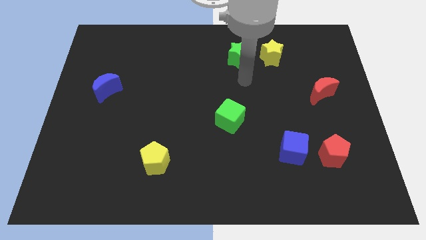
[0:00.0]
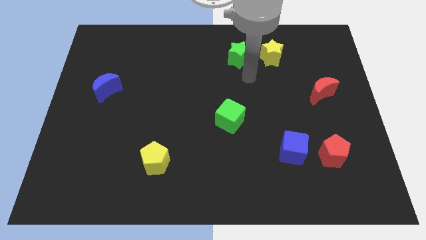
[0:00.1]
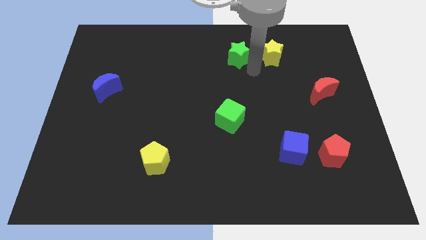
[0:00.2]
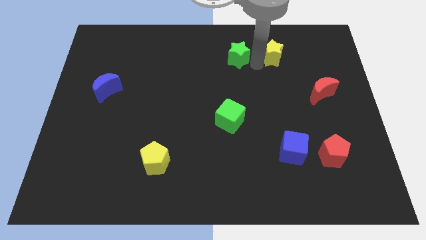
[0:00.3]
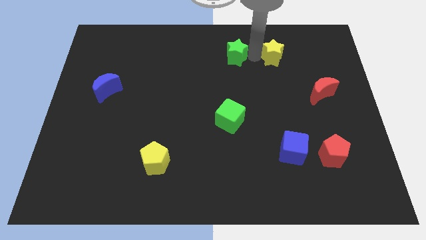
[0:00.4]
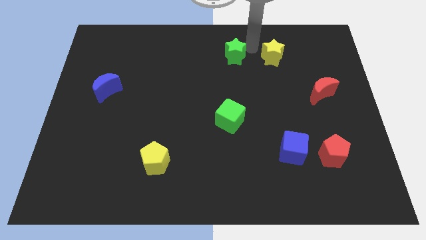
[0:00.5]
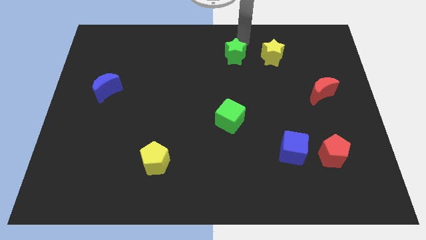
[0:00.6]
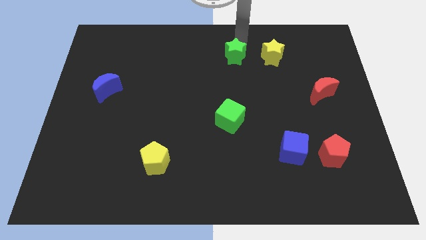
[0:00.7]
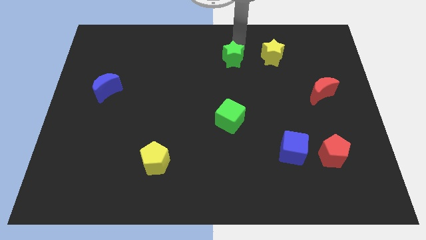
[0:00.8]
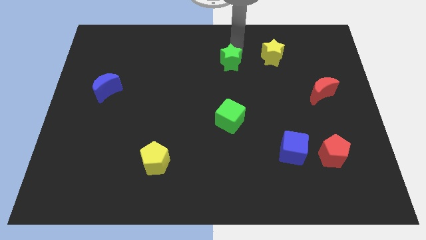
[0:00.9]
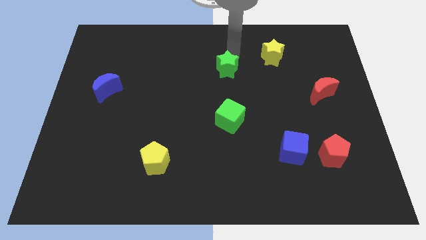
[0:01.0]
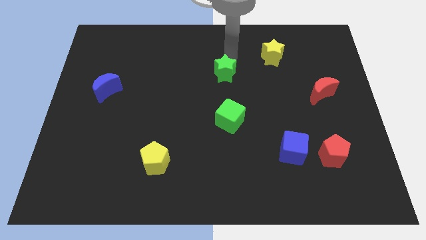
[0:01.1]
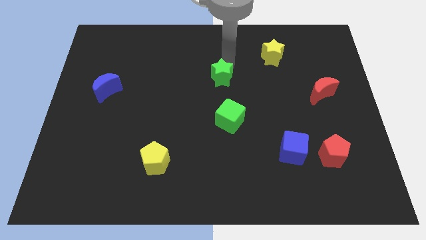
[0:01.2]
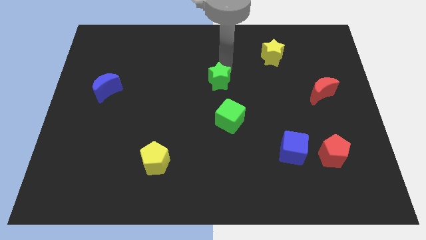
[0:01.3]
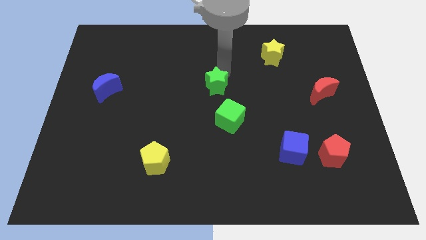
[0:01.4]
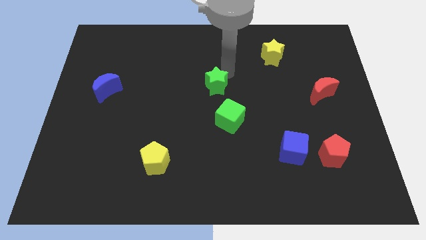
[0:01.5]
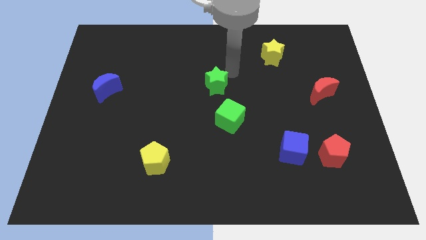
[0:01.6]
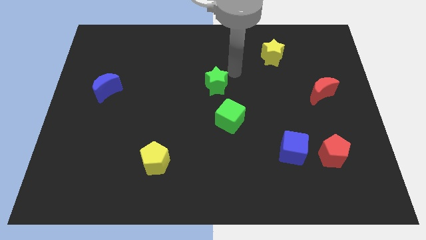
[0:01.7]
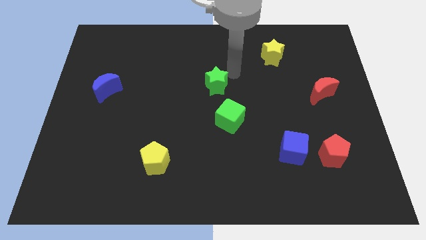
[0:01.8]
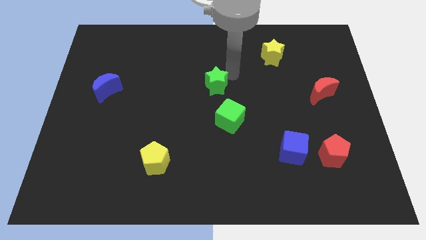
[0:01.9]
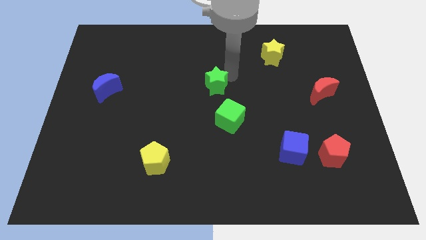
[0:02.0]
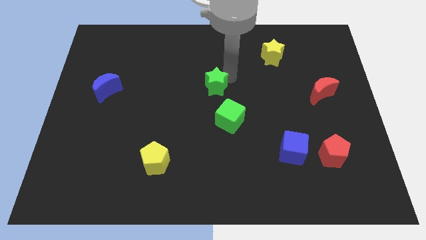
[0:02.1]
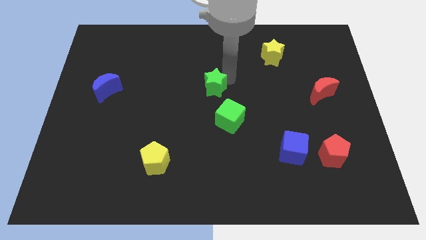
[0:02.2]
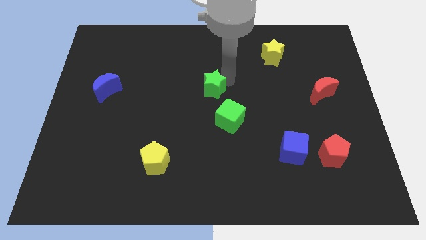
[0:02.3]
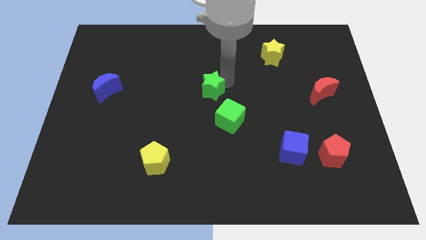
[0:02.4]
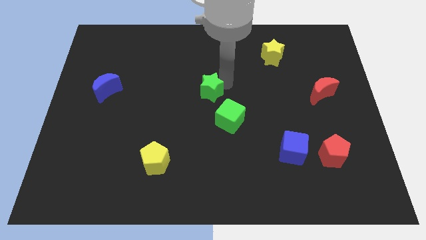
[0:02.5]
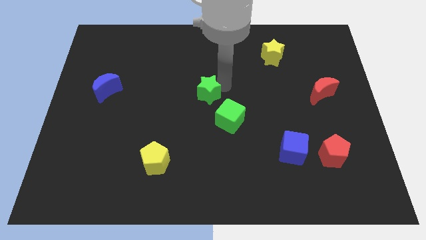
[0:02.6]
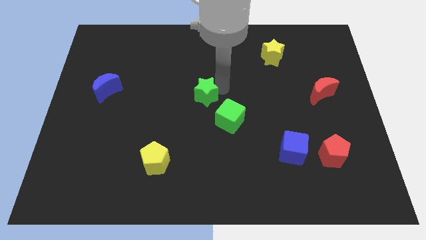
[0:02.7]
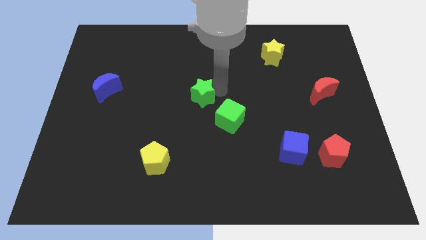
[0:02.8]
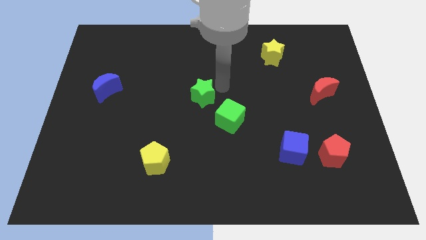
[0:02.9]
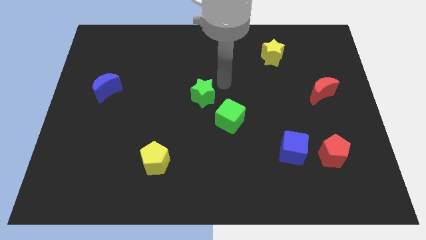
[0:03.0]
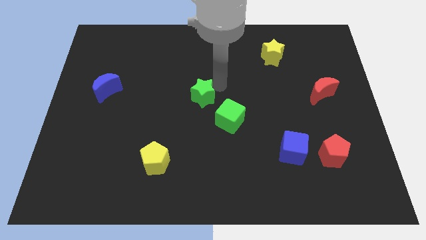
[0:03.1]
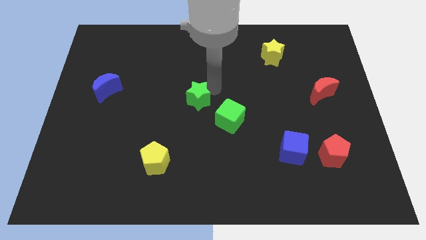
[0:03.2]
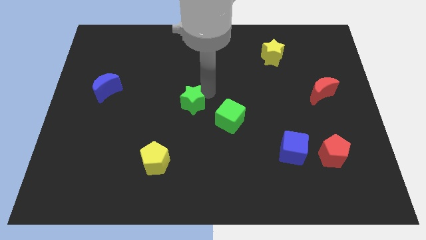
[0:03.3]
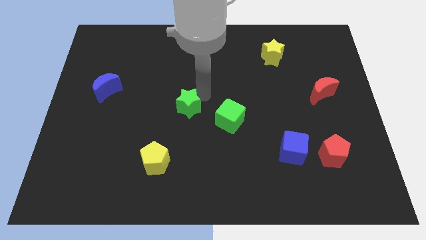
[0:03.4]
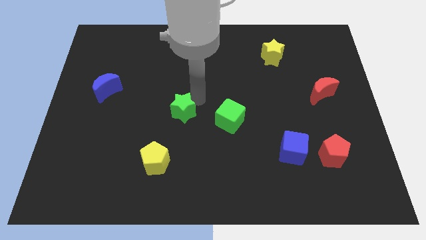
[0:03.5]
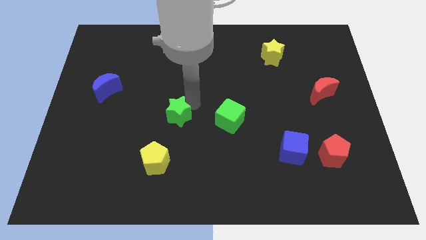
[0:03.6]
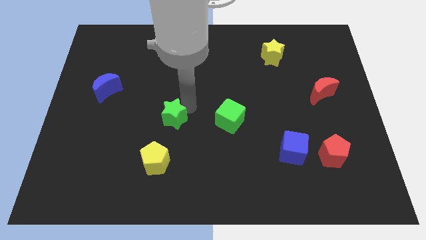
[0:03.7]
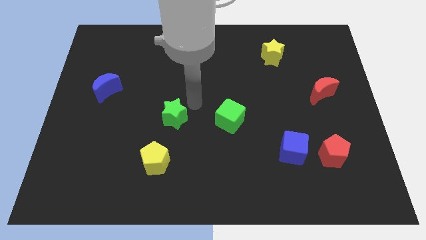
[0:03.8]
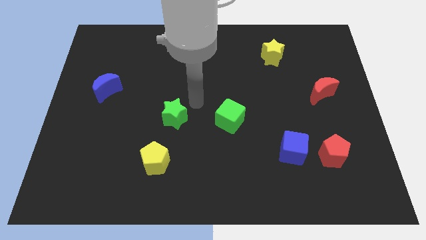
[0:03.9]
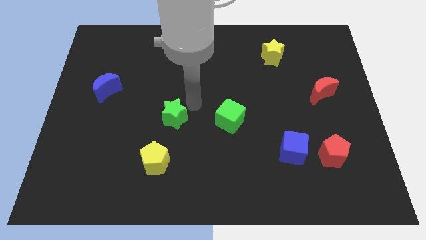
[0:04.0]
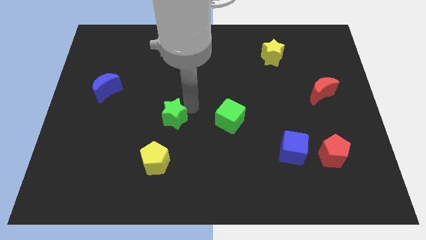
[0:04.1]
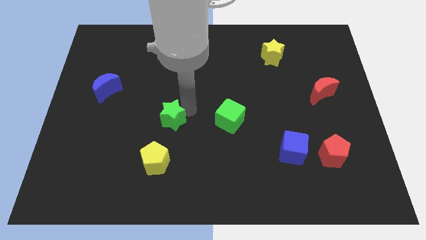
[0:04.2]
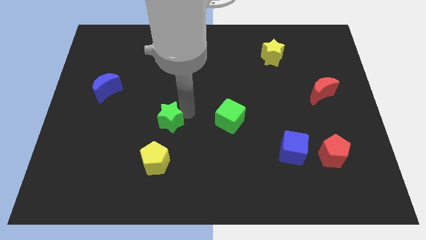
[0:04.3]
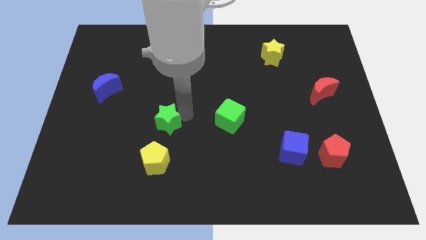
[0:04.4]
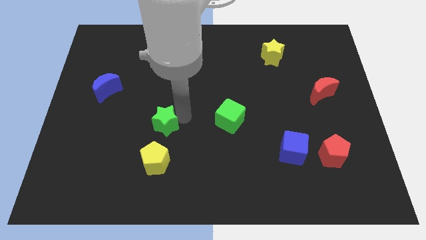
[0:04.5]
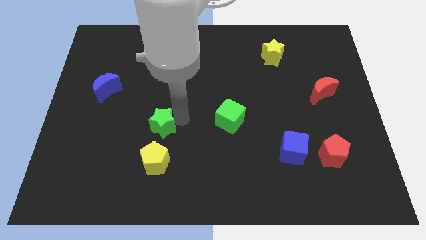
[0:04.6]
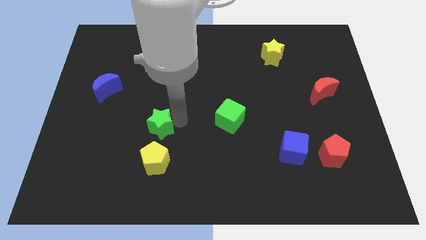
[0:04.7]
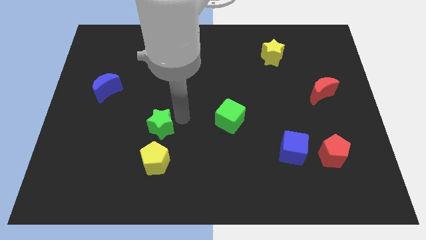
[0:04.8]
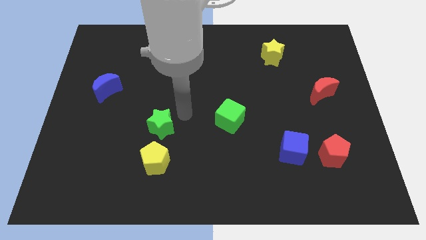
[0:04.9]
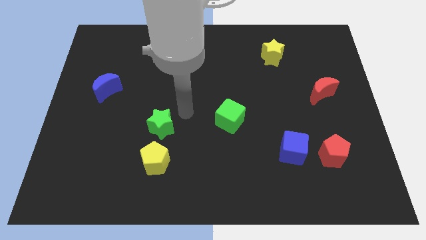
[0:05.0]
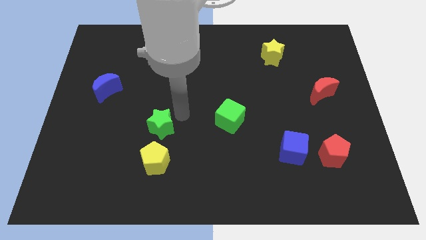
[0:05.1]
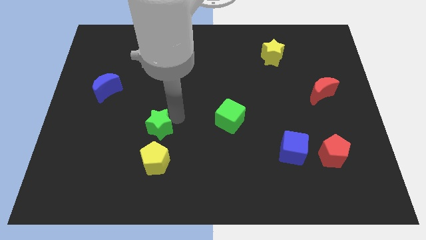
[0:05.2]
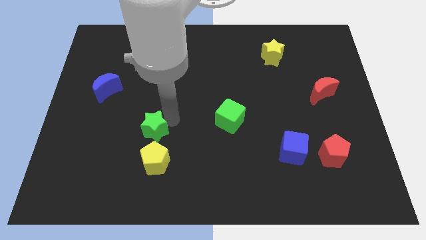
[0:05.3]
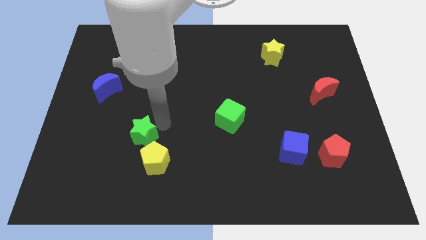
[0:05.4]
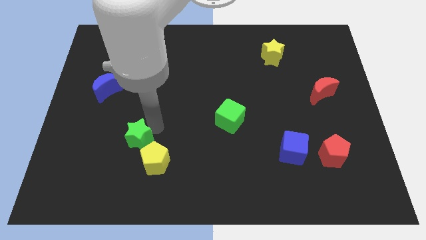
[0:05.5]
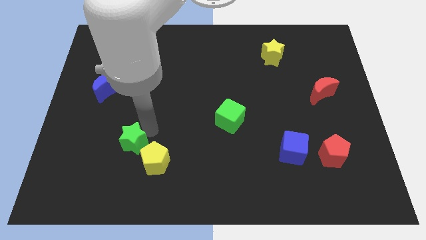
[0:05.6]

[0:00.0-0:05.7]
slide the green star left of the yellow pentagon

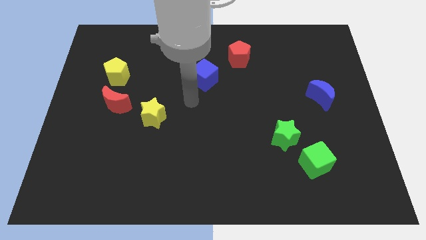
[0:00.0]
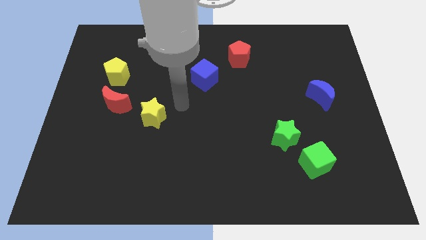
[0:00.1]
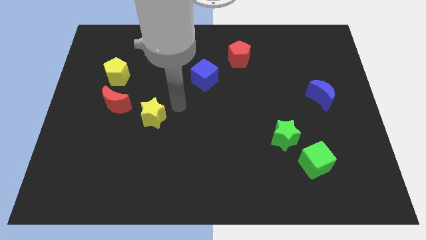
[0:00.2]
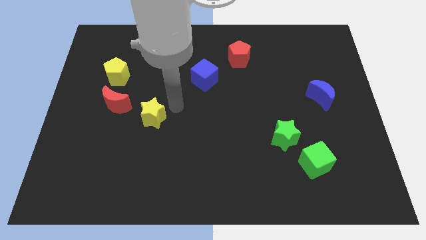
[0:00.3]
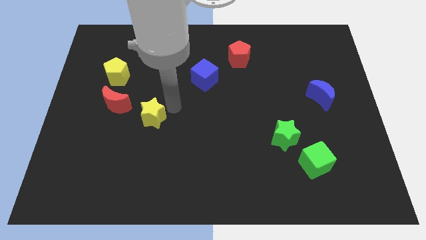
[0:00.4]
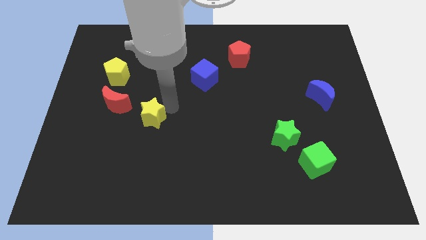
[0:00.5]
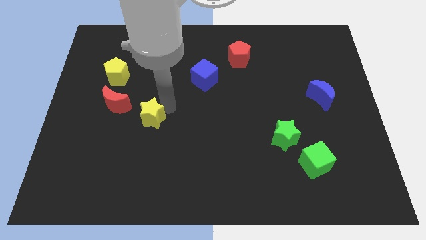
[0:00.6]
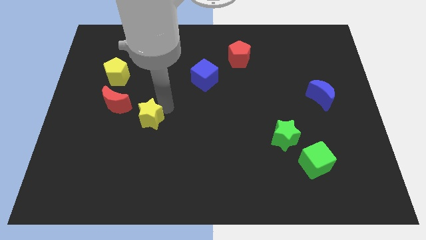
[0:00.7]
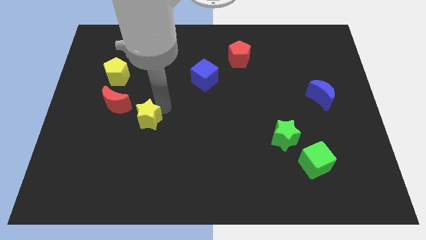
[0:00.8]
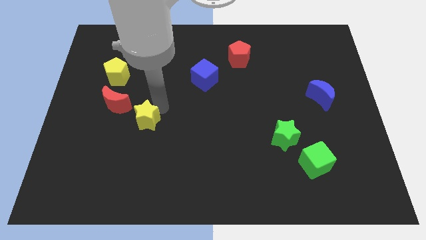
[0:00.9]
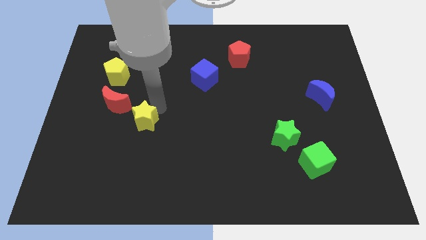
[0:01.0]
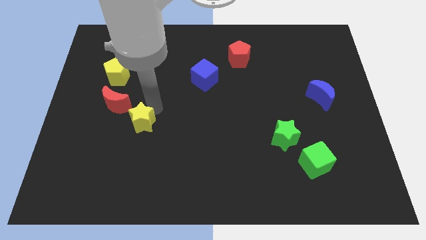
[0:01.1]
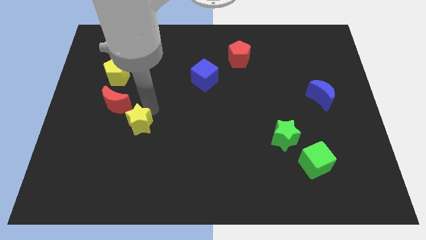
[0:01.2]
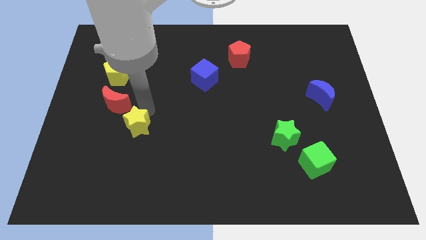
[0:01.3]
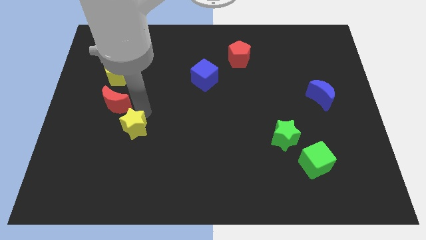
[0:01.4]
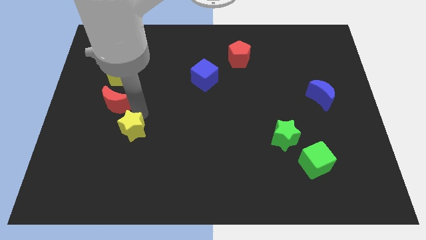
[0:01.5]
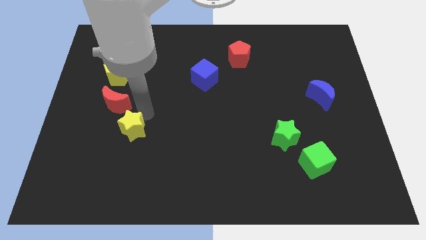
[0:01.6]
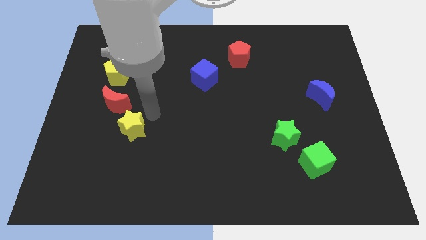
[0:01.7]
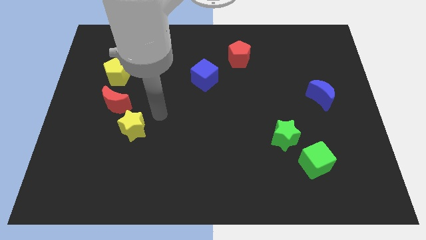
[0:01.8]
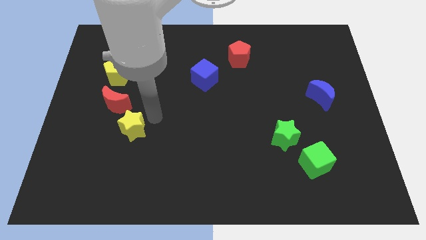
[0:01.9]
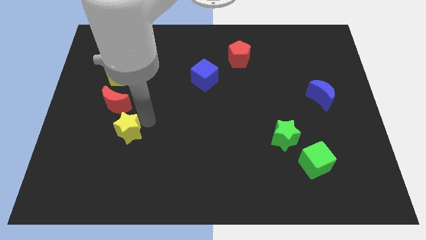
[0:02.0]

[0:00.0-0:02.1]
move the yellow star to the bottom side of the red moon
